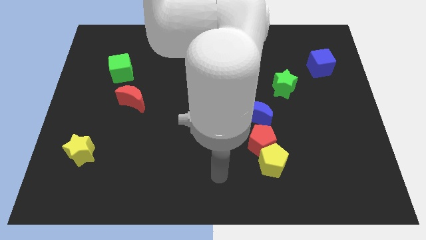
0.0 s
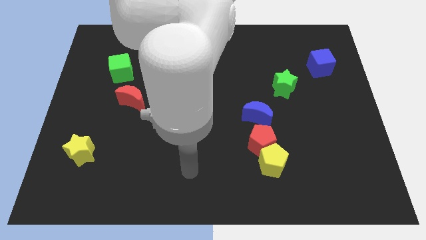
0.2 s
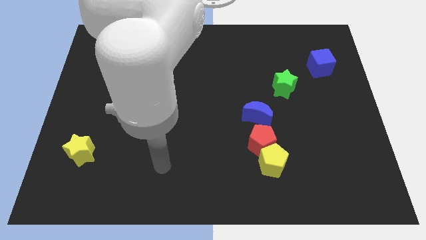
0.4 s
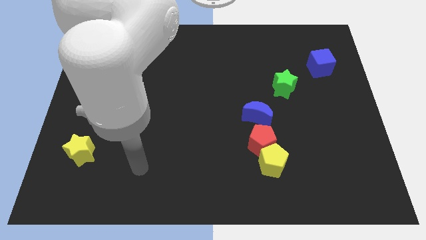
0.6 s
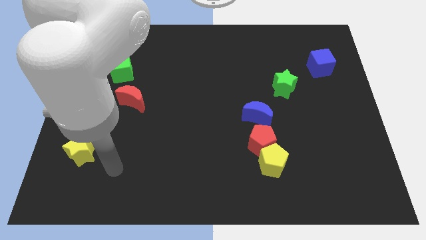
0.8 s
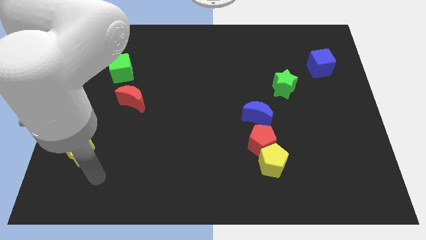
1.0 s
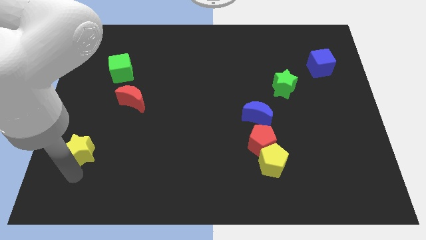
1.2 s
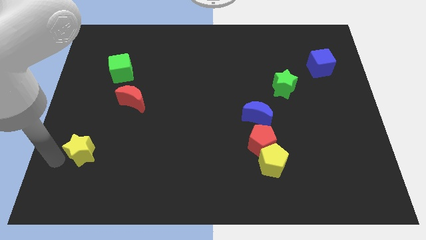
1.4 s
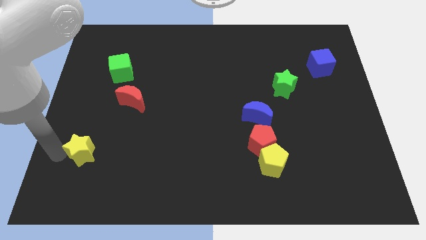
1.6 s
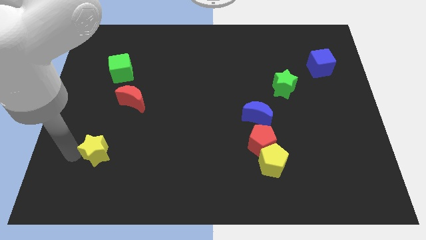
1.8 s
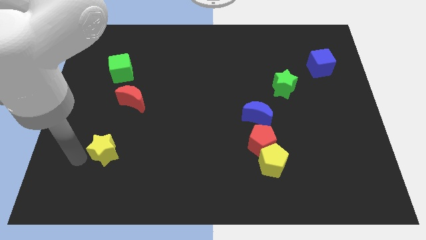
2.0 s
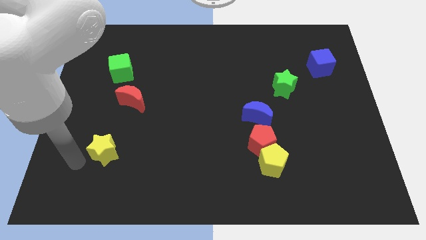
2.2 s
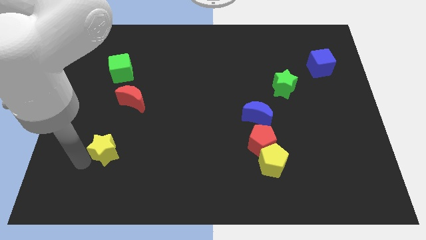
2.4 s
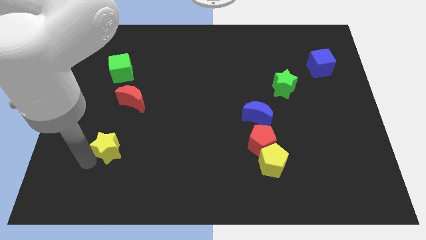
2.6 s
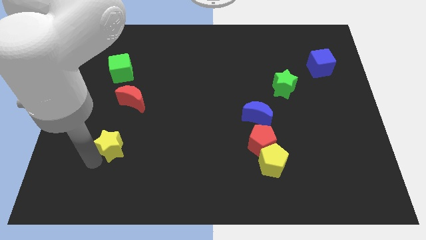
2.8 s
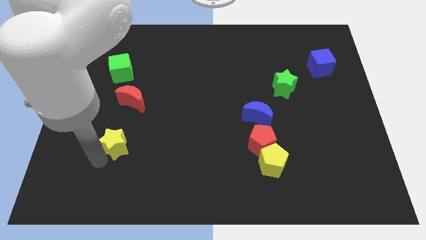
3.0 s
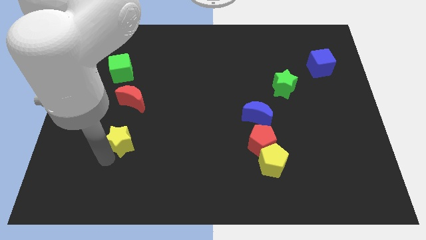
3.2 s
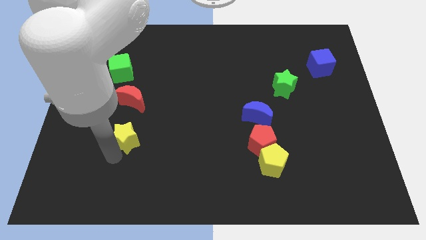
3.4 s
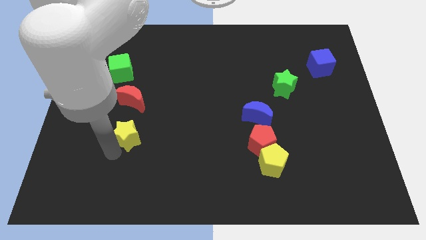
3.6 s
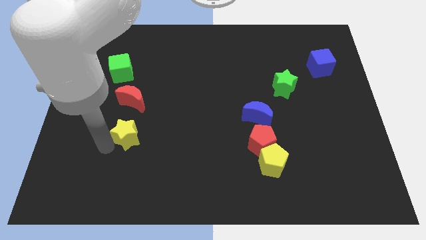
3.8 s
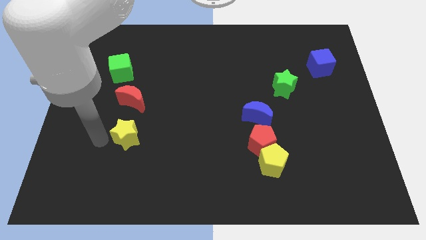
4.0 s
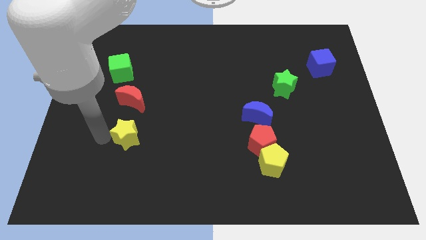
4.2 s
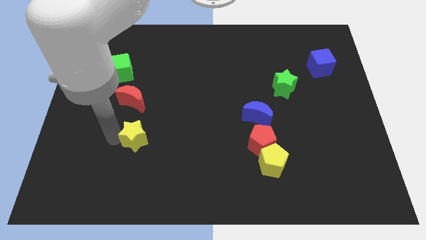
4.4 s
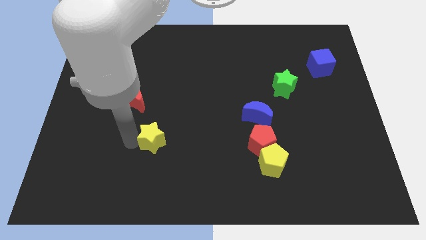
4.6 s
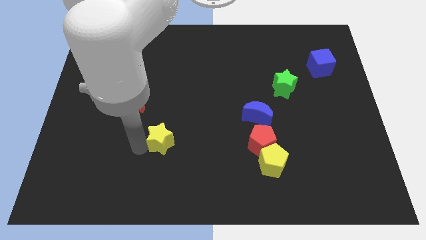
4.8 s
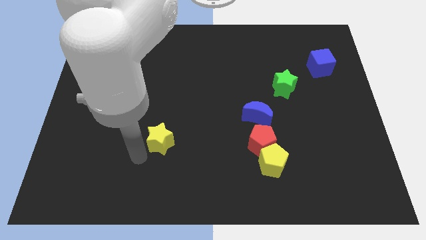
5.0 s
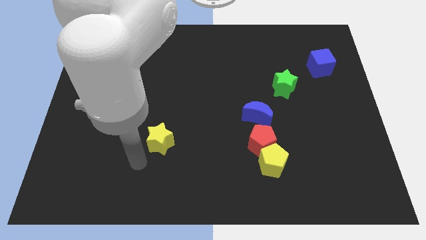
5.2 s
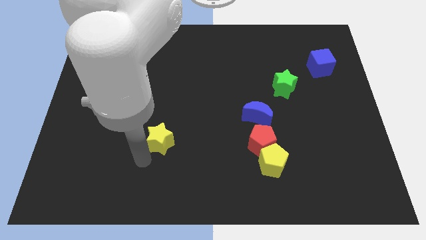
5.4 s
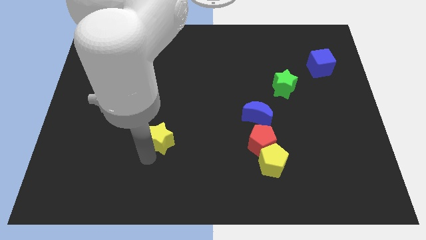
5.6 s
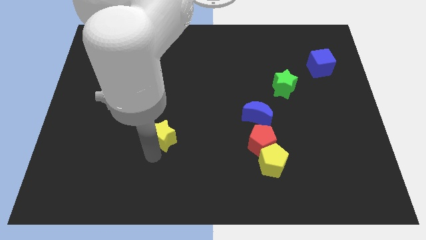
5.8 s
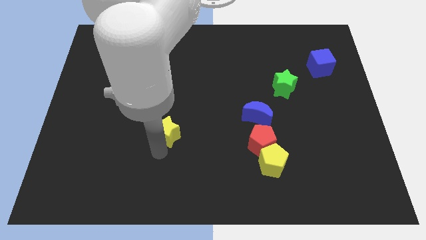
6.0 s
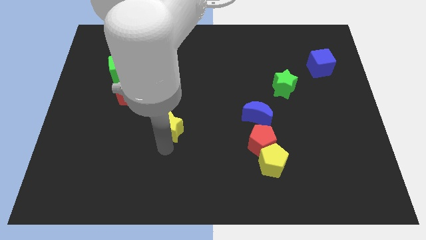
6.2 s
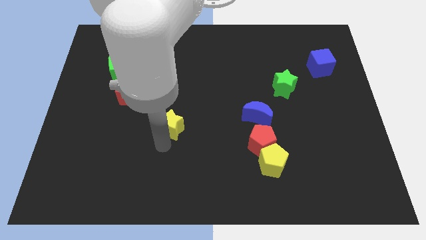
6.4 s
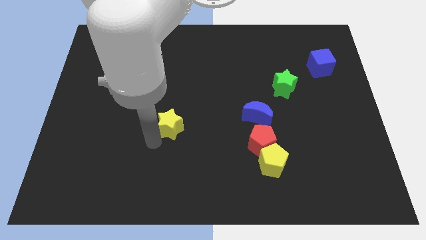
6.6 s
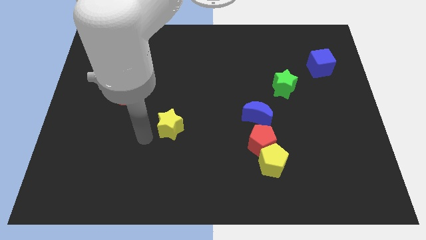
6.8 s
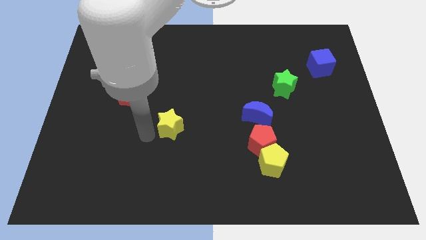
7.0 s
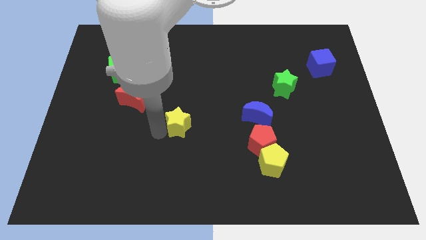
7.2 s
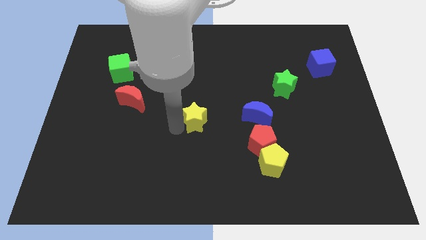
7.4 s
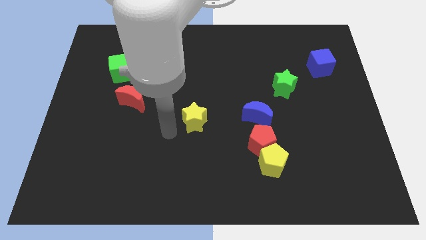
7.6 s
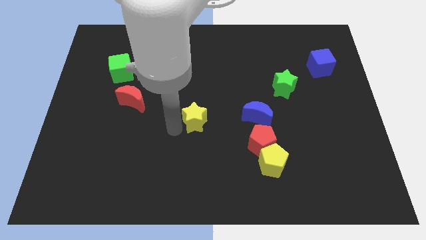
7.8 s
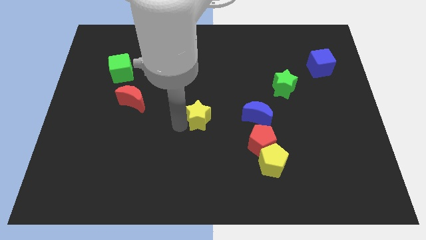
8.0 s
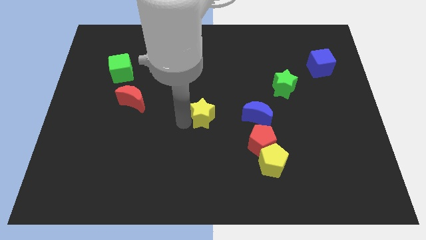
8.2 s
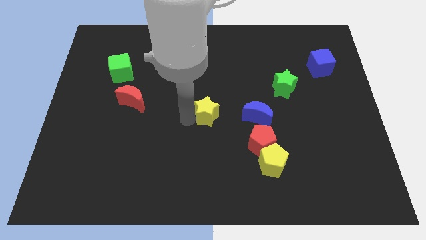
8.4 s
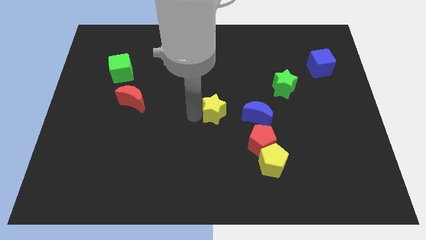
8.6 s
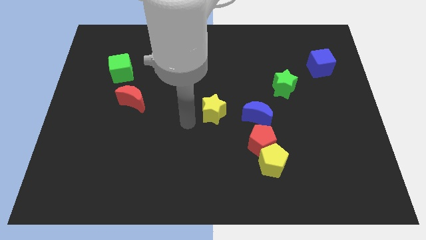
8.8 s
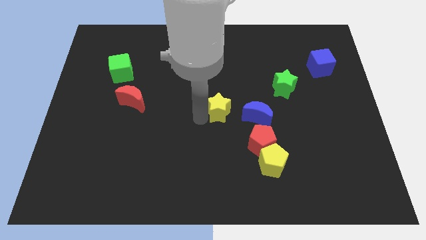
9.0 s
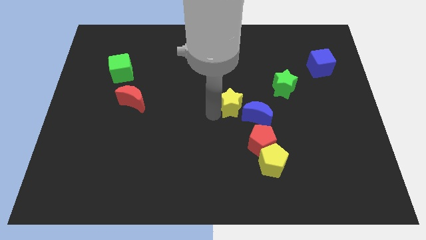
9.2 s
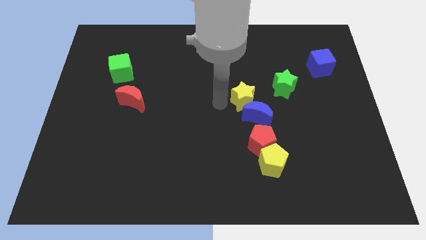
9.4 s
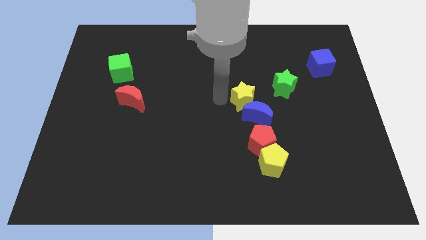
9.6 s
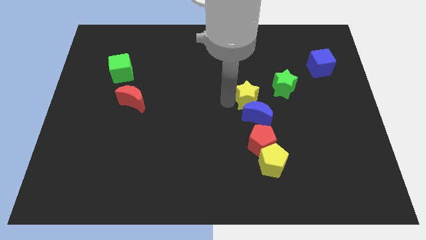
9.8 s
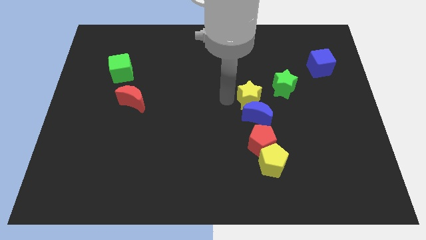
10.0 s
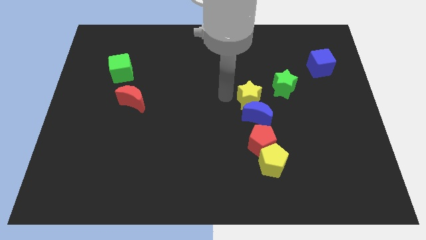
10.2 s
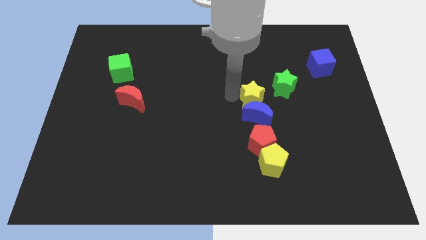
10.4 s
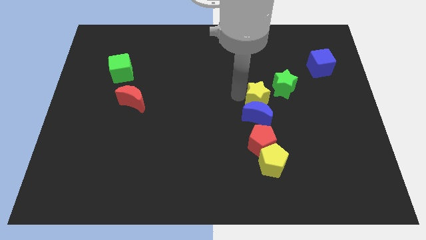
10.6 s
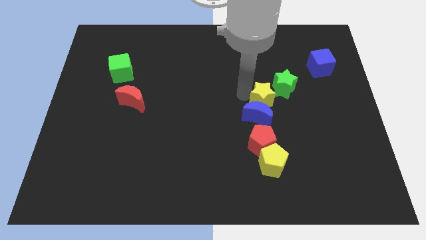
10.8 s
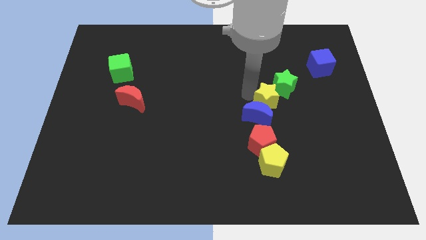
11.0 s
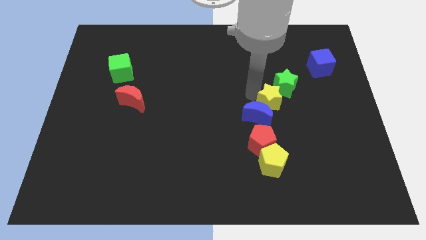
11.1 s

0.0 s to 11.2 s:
slide the yellow star to the right side of the blue moon

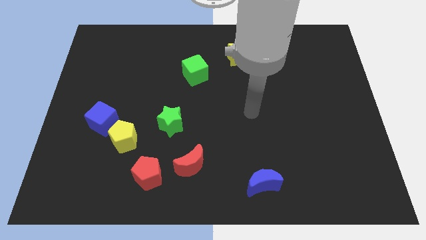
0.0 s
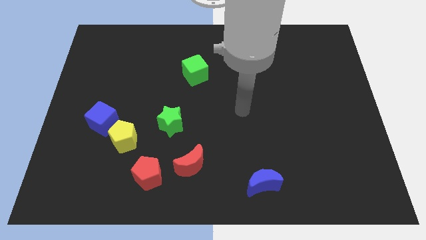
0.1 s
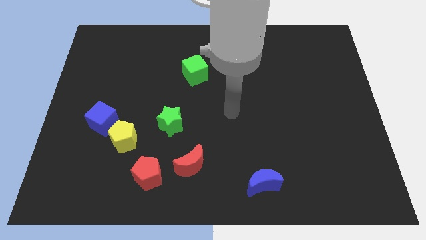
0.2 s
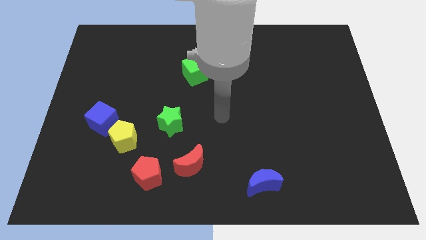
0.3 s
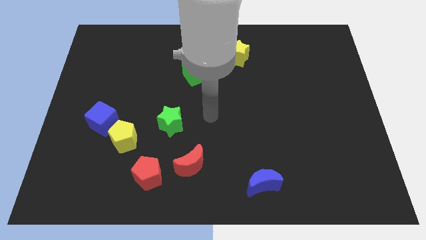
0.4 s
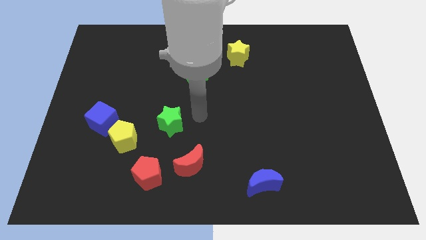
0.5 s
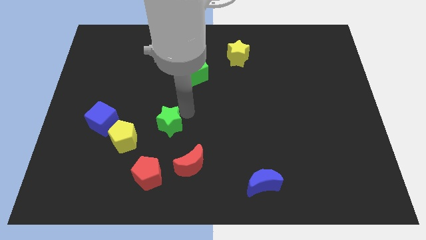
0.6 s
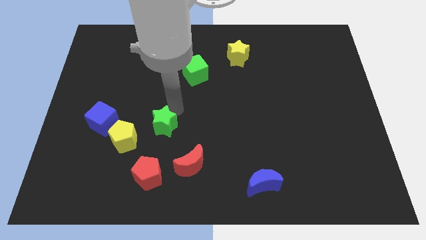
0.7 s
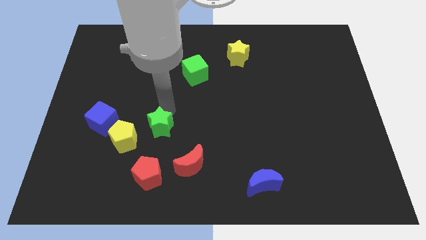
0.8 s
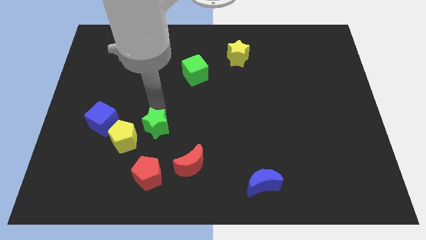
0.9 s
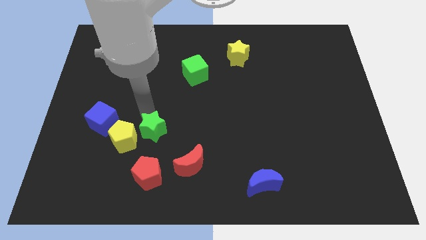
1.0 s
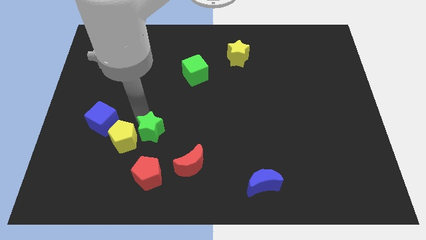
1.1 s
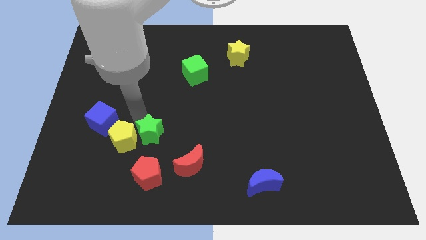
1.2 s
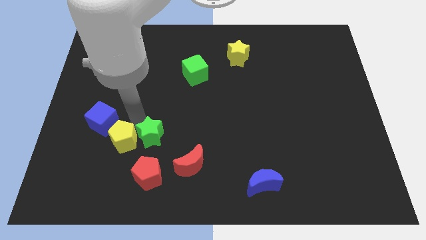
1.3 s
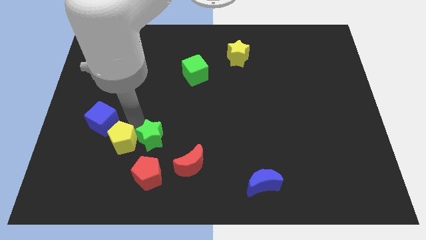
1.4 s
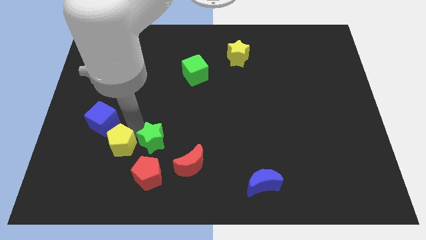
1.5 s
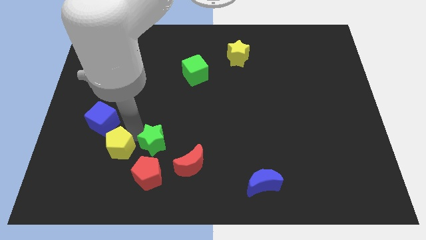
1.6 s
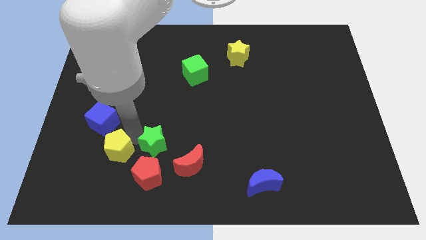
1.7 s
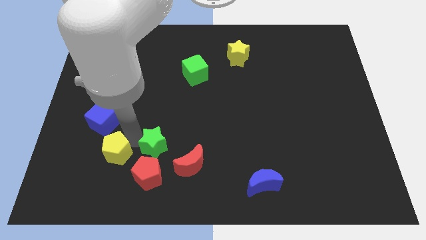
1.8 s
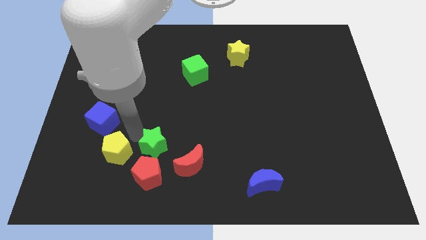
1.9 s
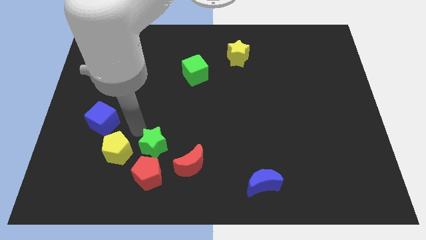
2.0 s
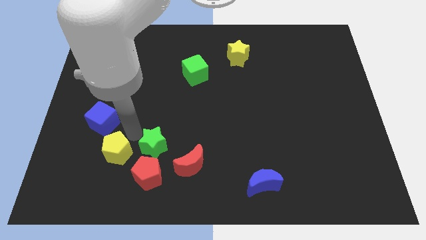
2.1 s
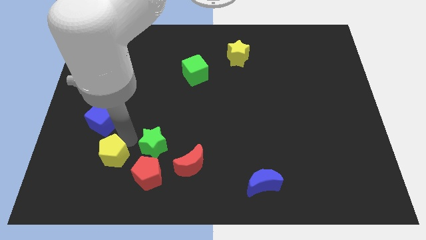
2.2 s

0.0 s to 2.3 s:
push the yellow pentagon just left of the red pentagon
